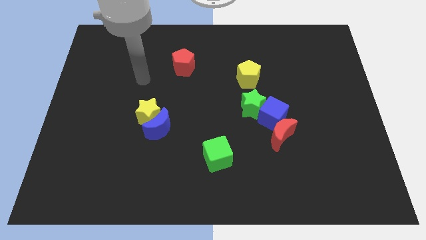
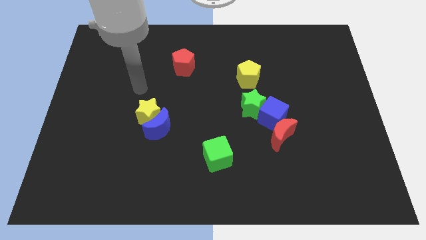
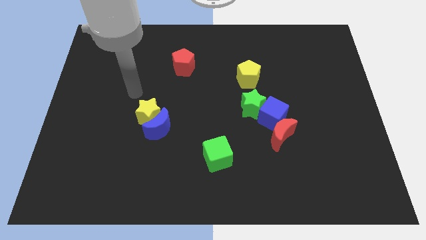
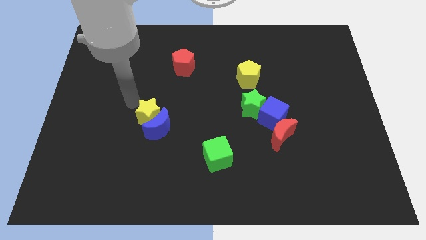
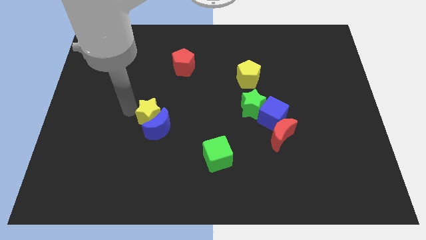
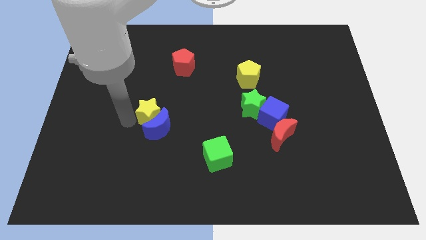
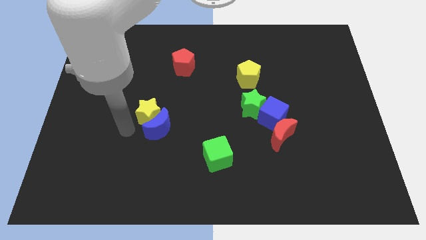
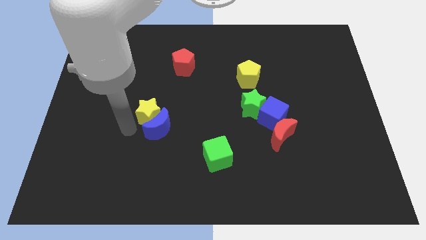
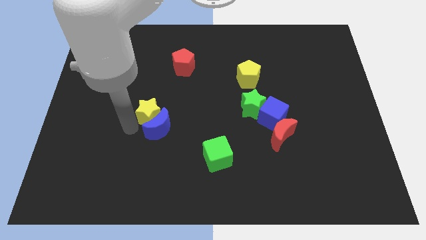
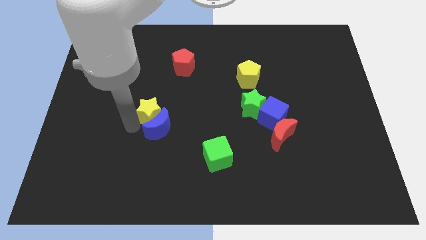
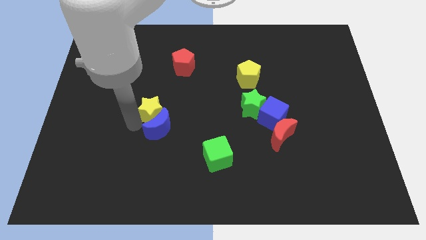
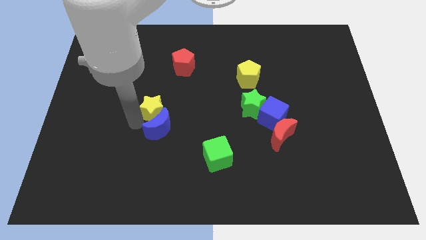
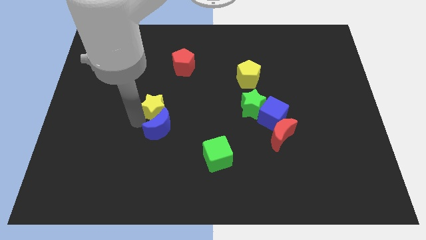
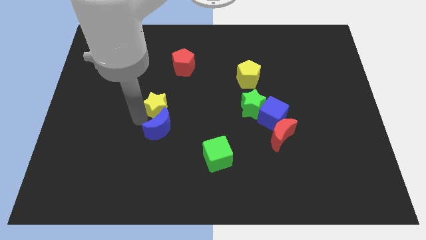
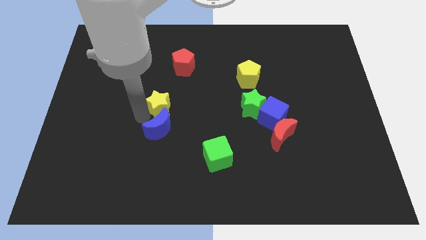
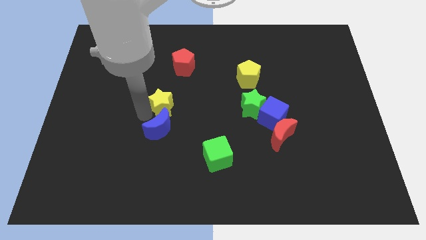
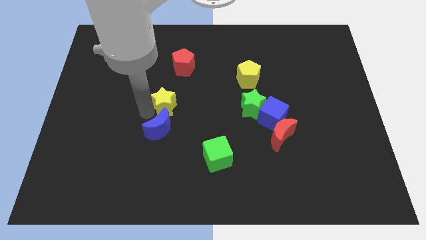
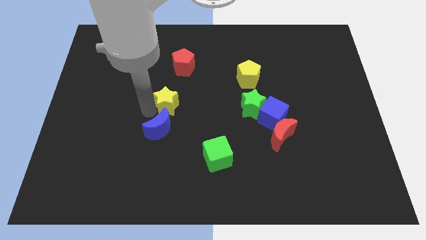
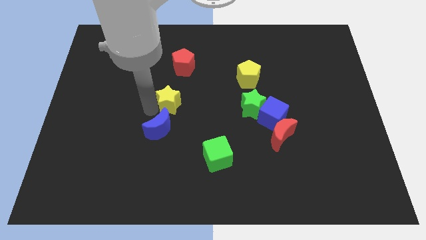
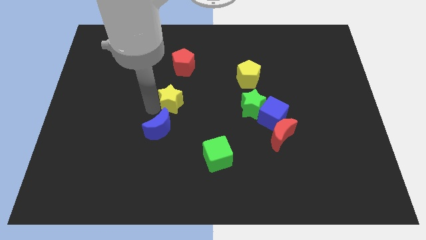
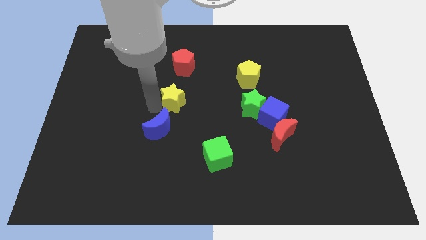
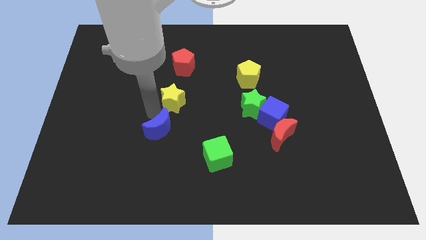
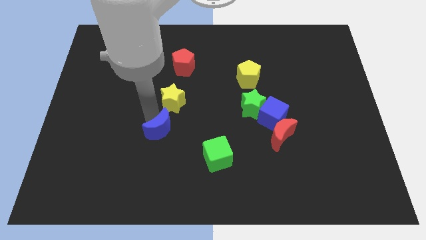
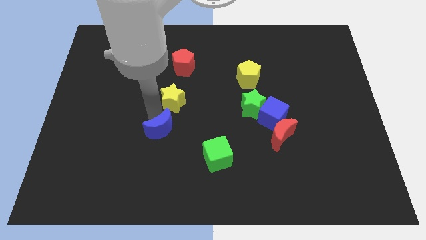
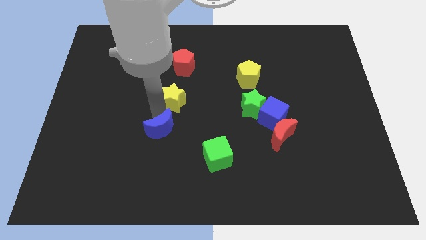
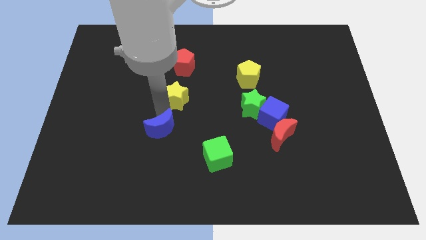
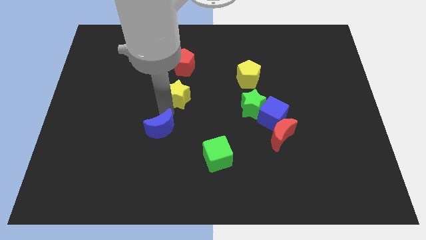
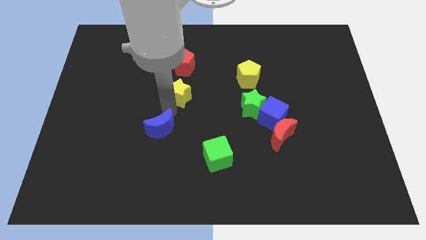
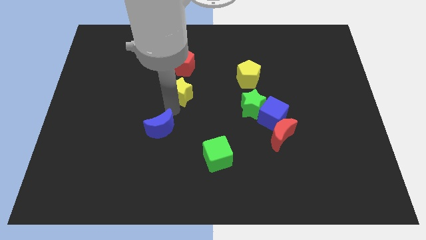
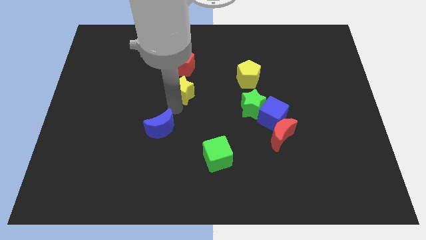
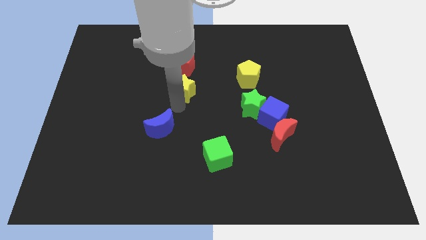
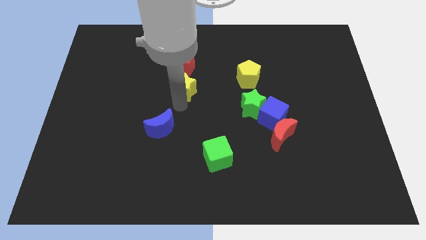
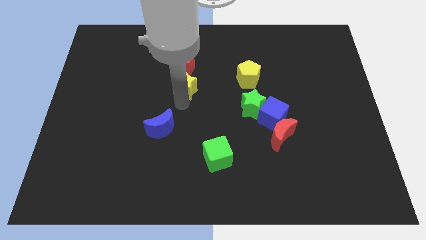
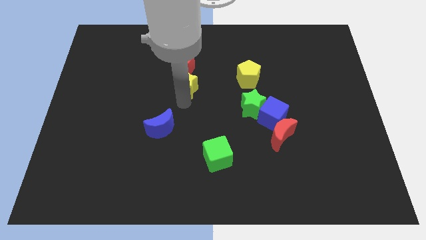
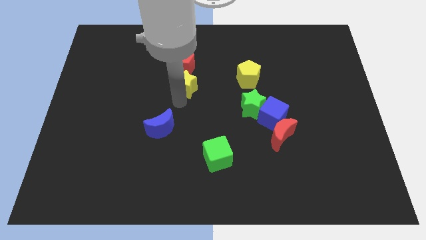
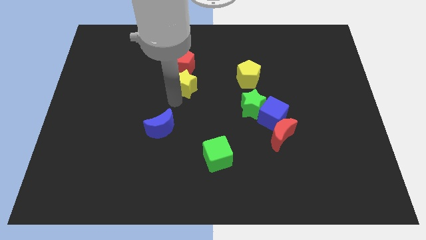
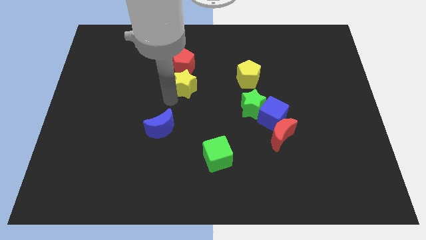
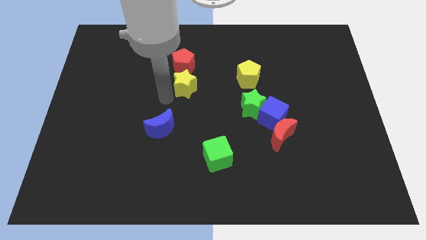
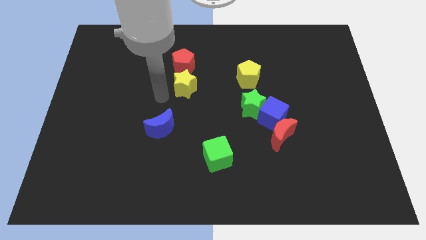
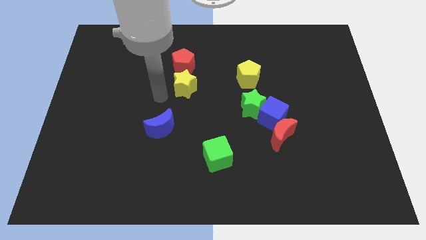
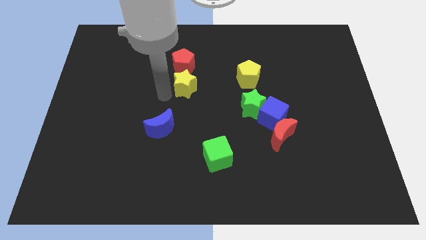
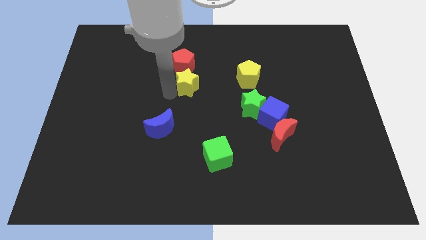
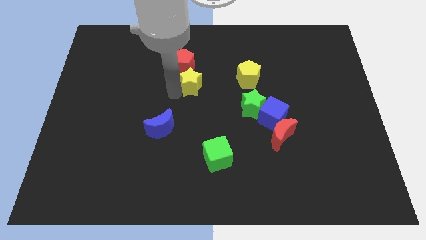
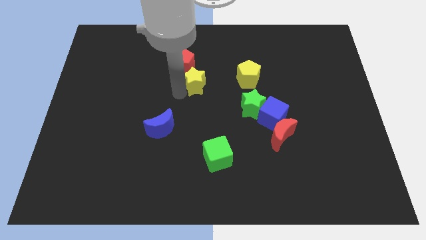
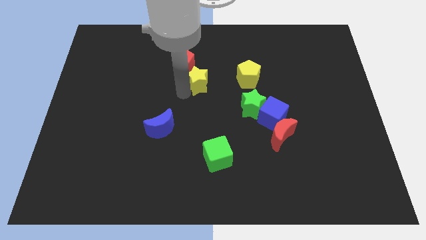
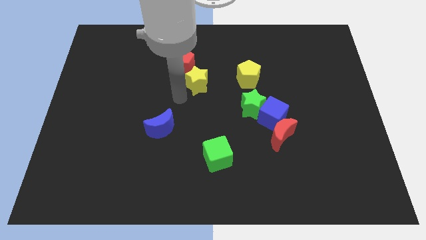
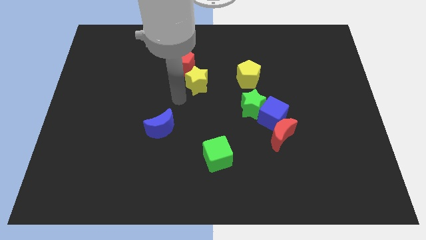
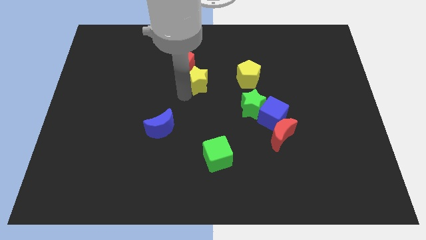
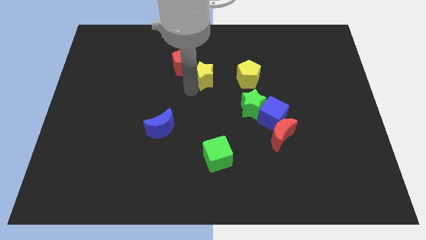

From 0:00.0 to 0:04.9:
slide the yellow star to the right side of the red pentagon

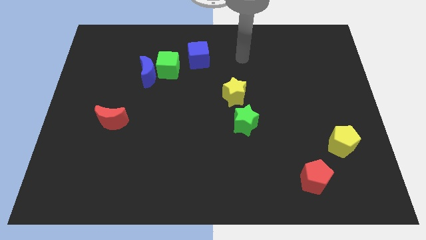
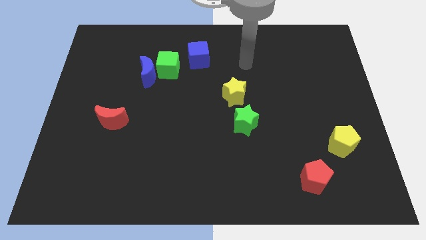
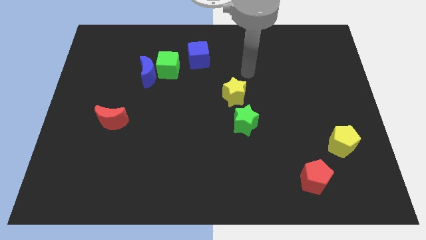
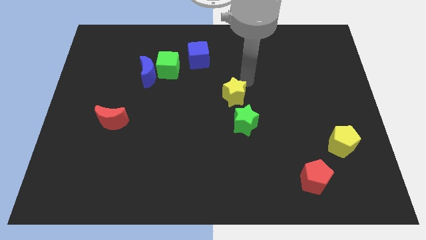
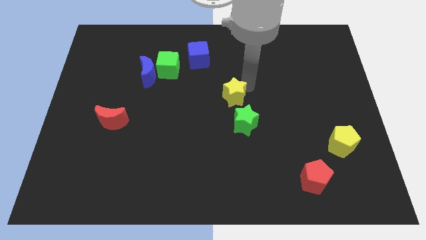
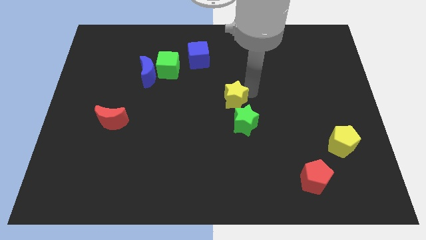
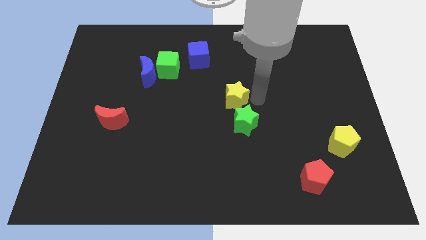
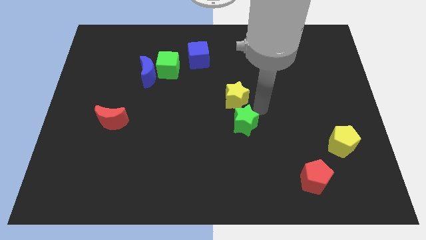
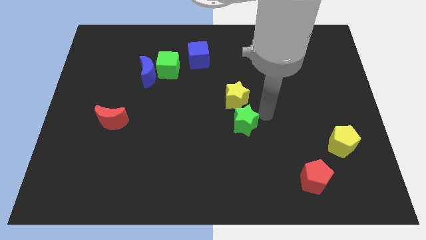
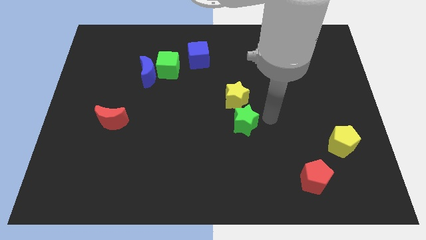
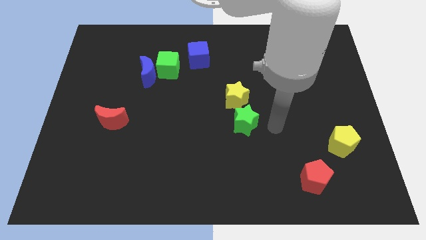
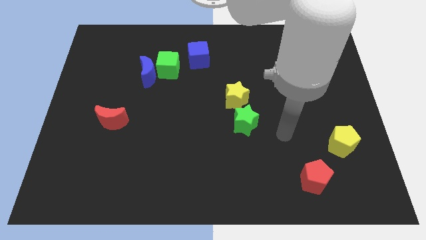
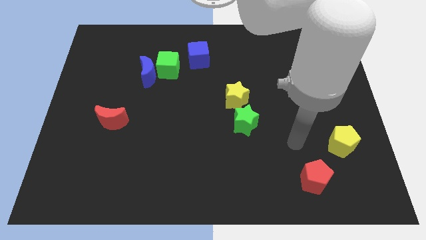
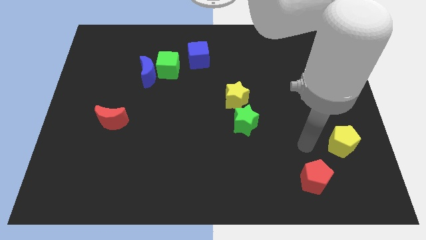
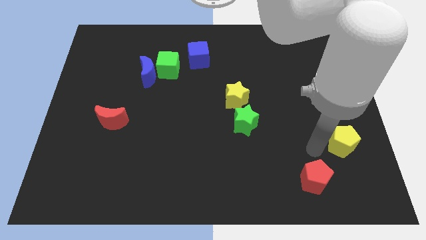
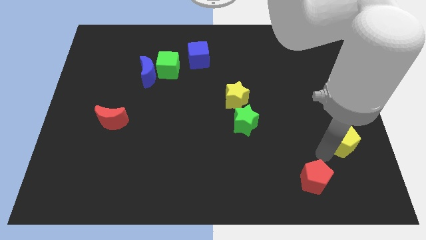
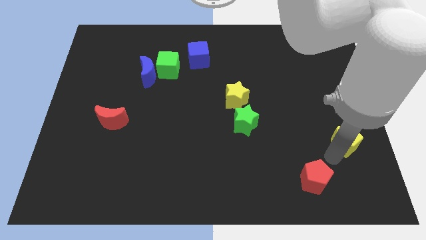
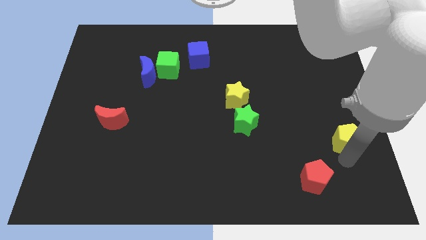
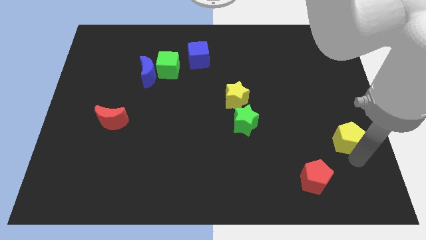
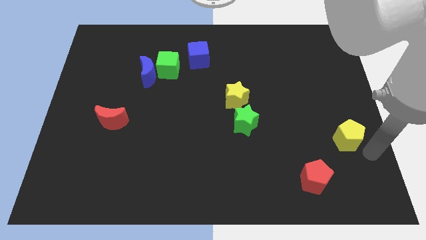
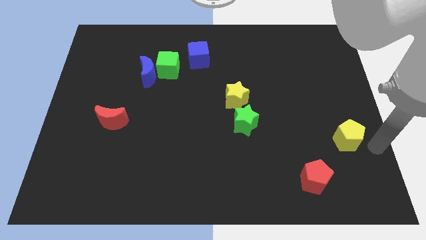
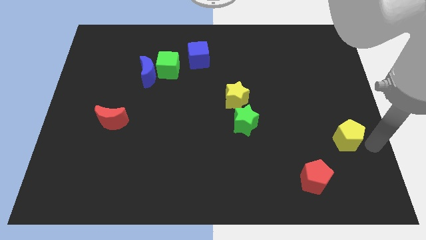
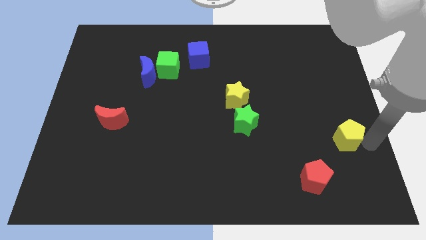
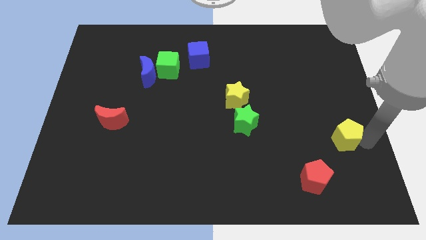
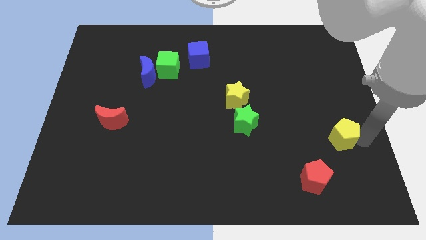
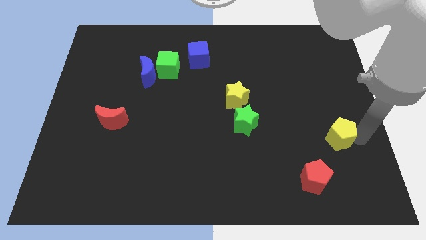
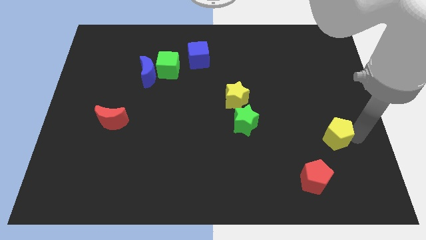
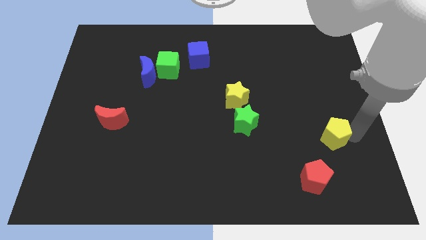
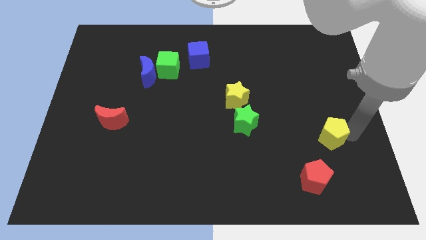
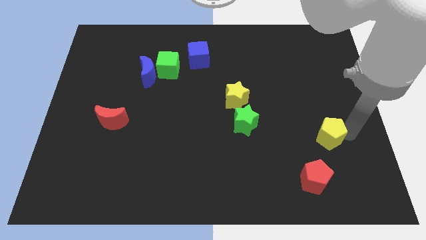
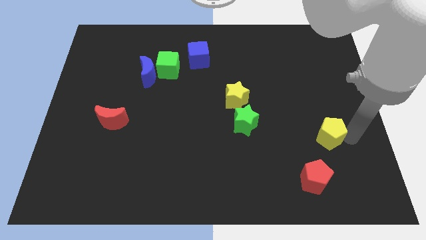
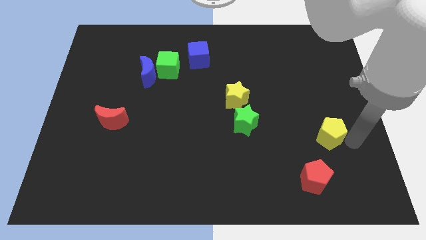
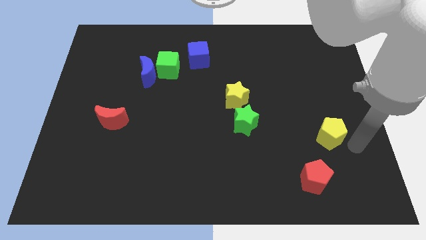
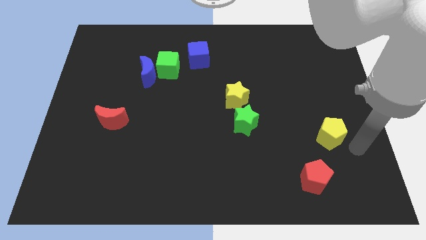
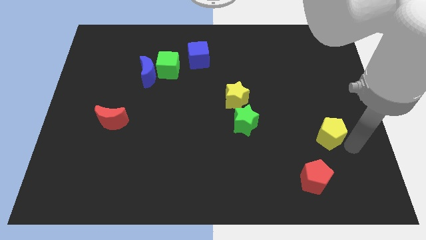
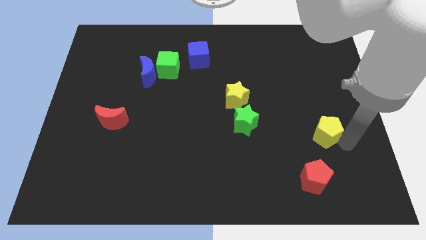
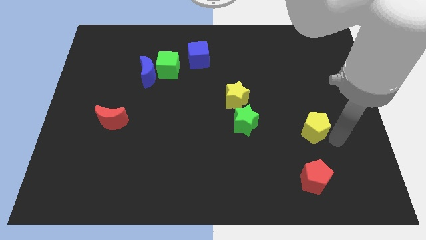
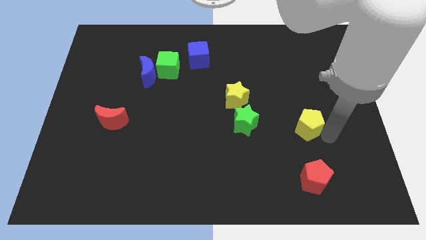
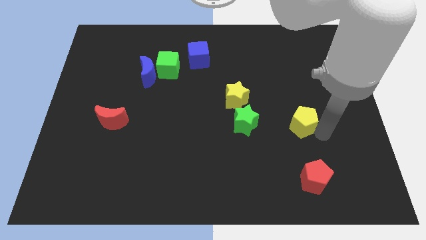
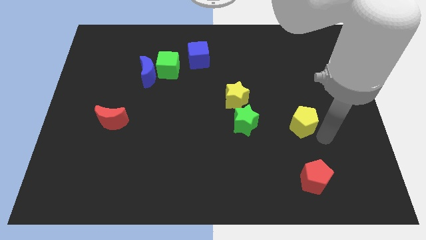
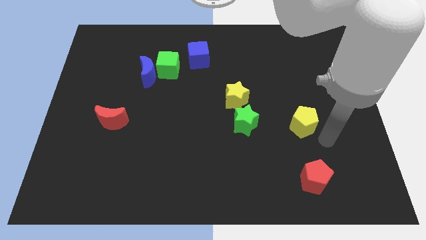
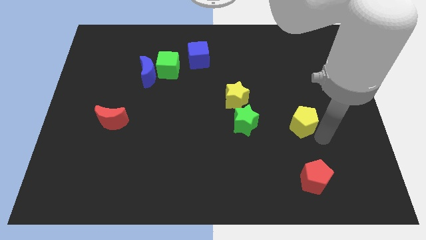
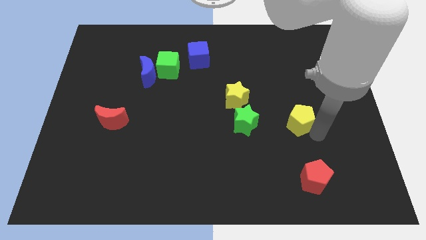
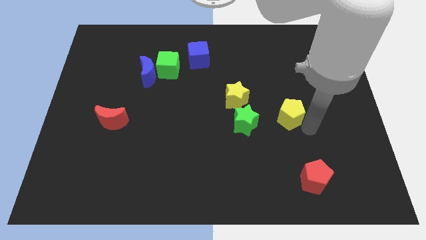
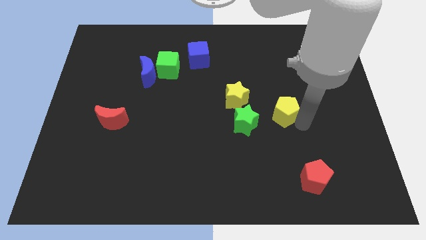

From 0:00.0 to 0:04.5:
push the yellow pentagon to the top right side of the green star
